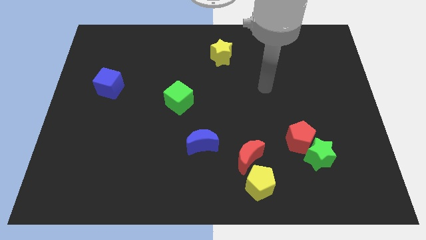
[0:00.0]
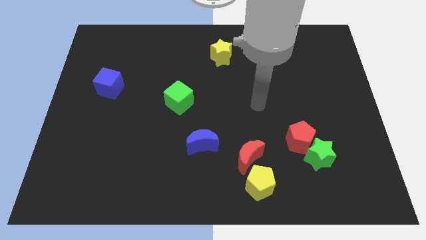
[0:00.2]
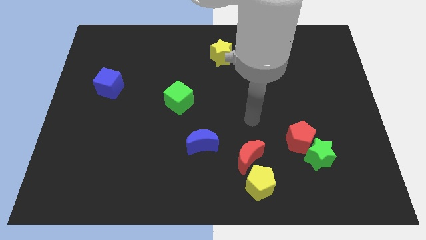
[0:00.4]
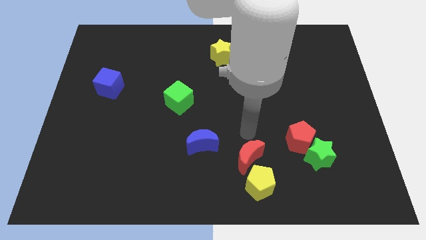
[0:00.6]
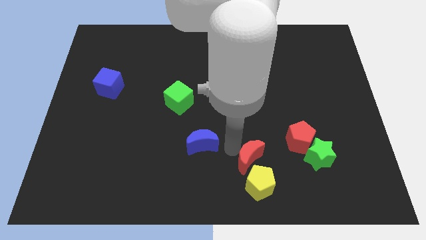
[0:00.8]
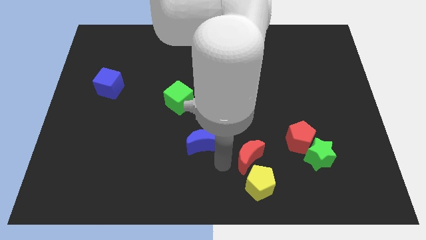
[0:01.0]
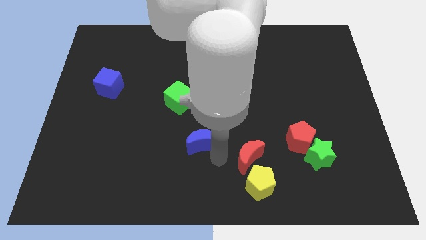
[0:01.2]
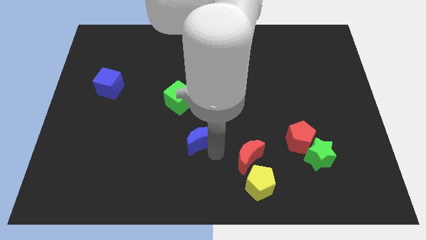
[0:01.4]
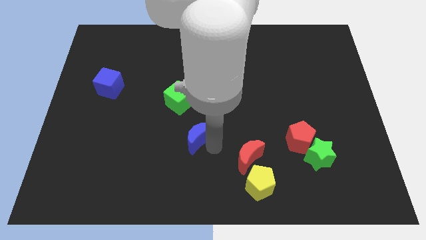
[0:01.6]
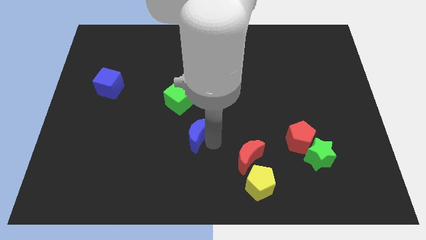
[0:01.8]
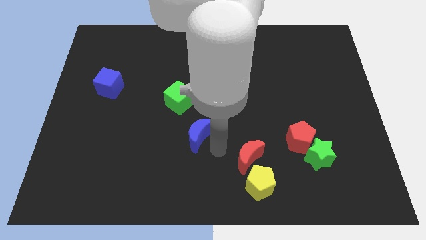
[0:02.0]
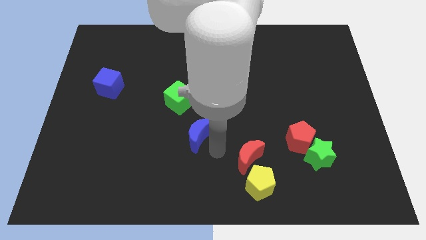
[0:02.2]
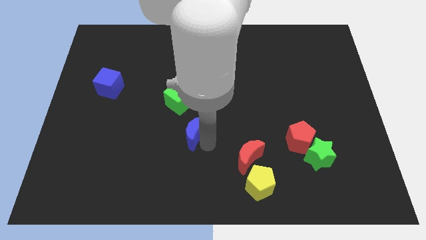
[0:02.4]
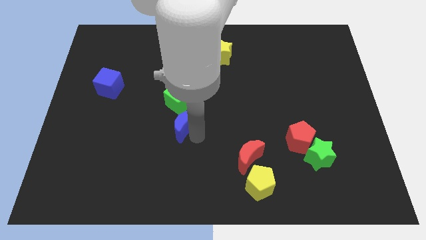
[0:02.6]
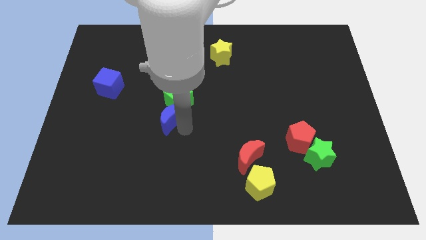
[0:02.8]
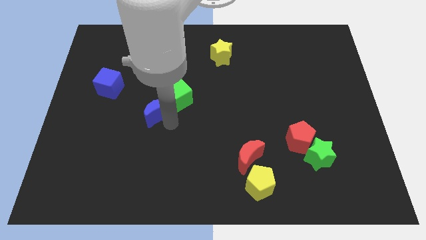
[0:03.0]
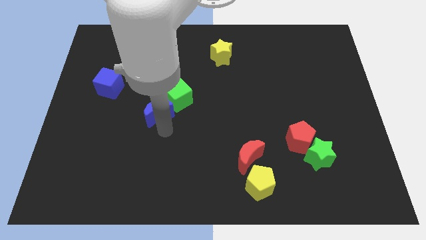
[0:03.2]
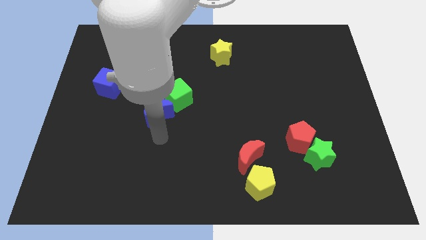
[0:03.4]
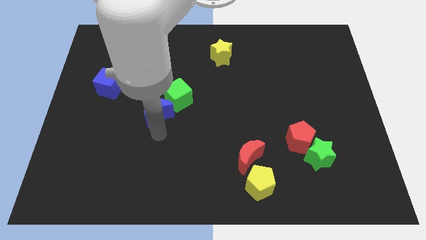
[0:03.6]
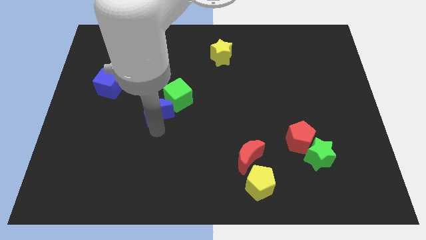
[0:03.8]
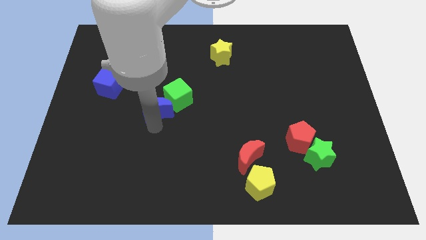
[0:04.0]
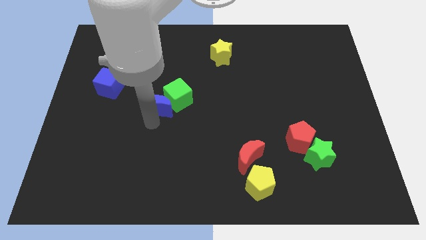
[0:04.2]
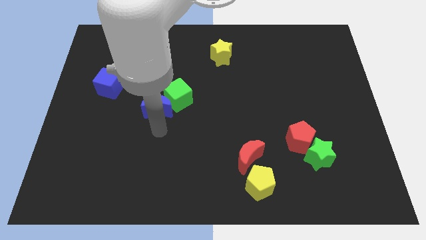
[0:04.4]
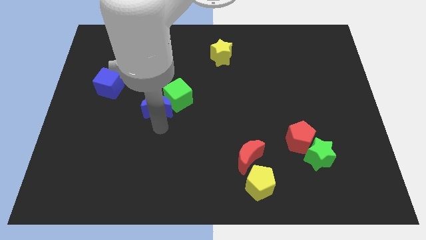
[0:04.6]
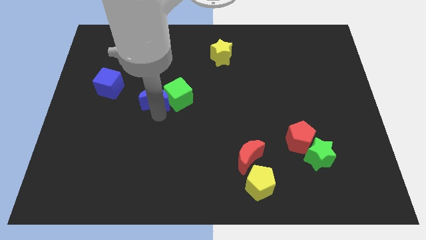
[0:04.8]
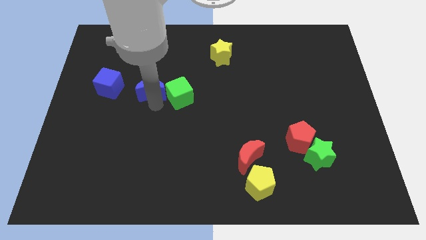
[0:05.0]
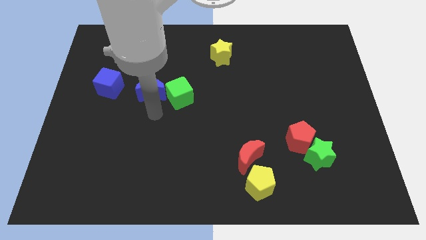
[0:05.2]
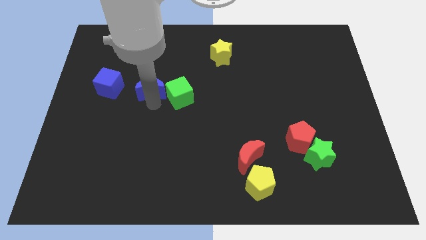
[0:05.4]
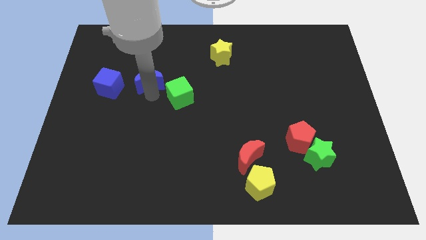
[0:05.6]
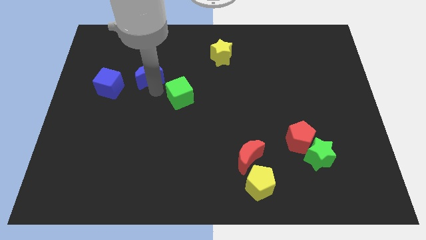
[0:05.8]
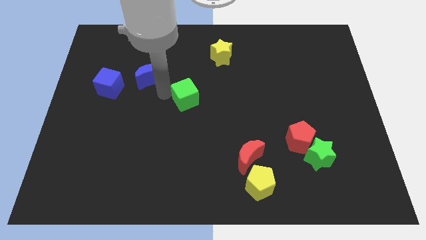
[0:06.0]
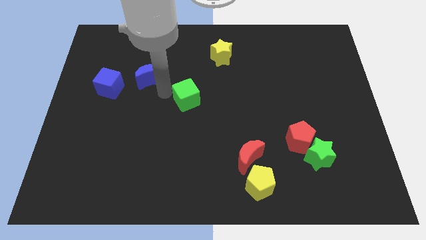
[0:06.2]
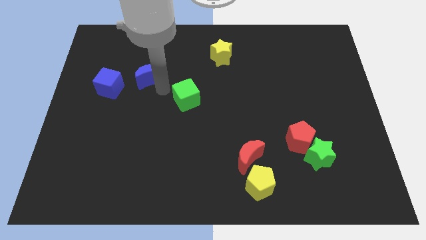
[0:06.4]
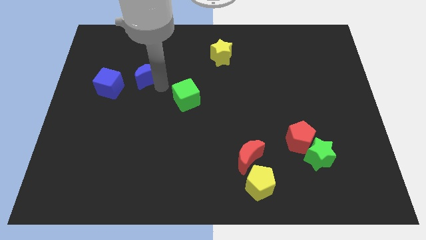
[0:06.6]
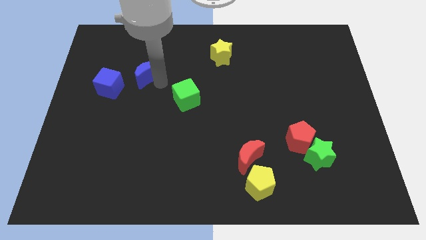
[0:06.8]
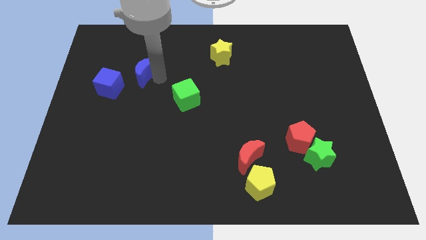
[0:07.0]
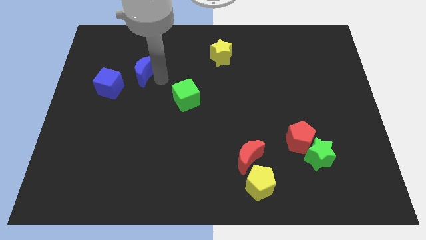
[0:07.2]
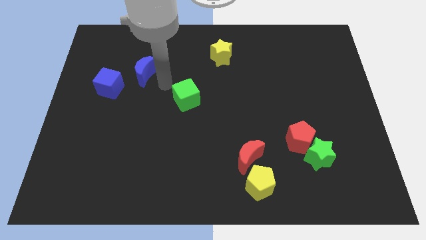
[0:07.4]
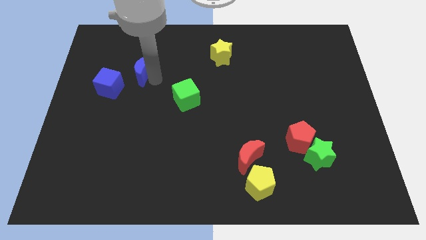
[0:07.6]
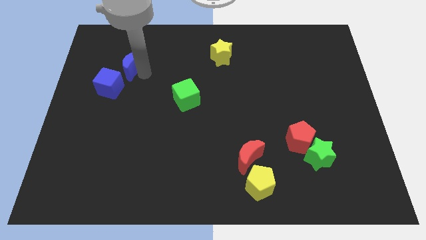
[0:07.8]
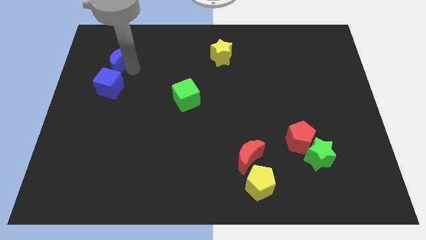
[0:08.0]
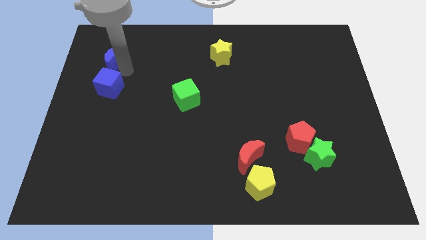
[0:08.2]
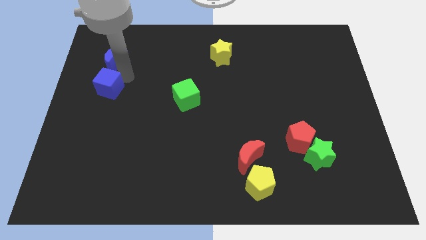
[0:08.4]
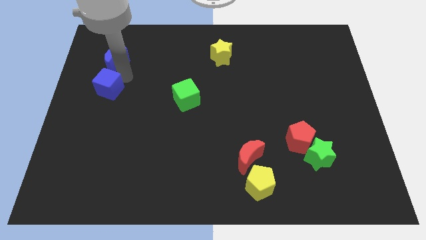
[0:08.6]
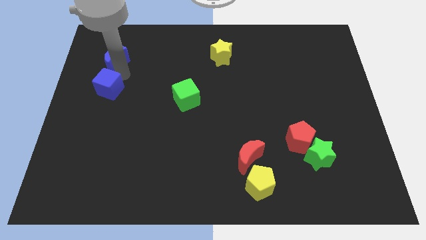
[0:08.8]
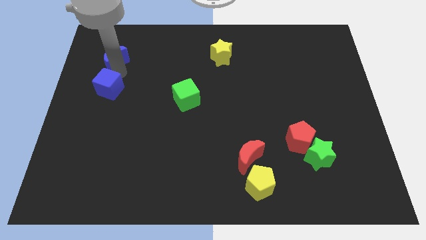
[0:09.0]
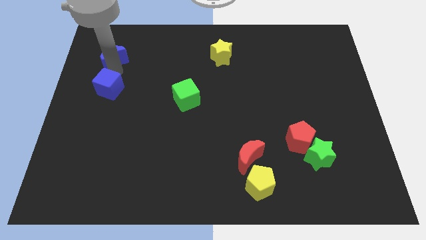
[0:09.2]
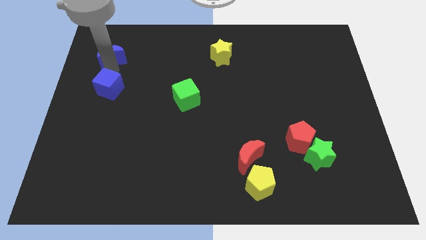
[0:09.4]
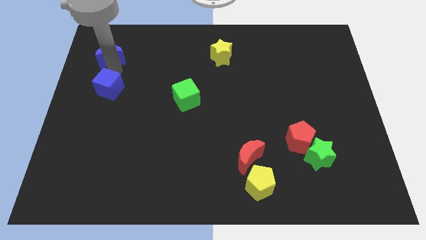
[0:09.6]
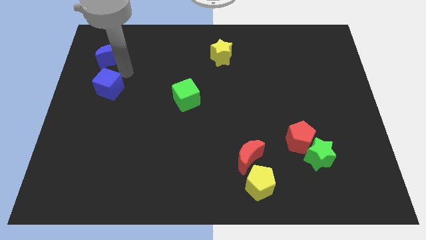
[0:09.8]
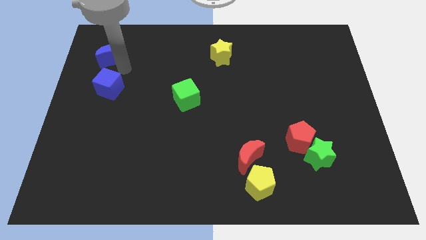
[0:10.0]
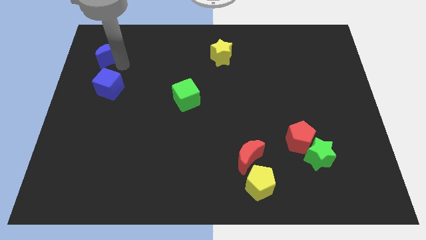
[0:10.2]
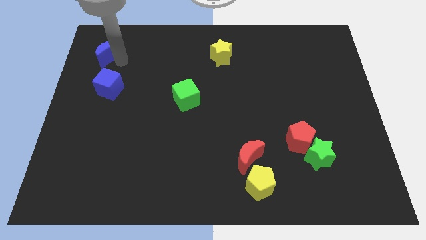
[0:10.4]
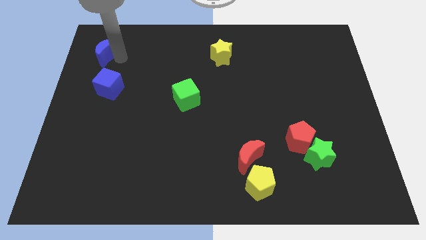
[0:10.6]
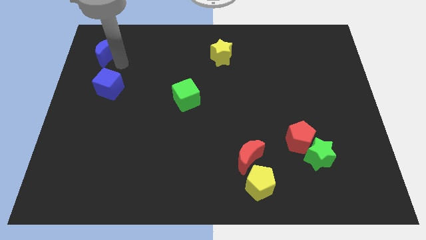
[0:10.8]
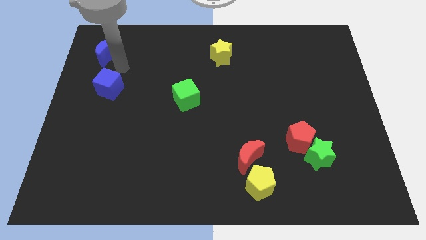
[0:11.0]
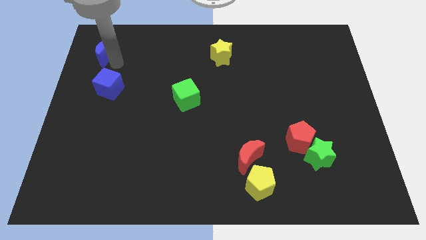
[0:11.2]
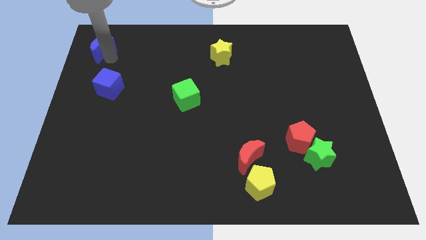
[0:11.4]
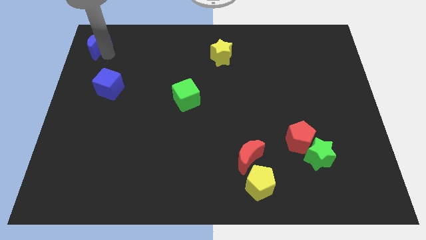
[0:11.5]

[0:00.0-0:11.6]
slide the blue moon to the top left of the board
